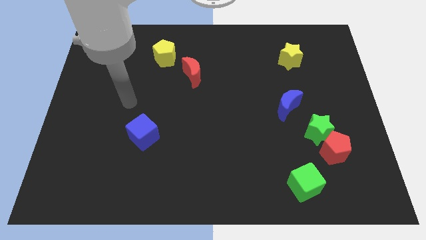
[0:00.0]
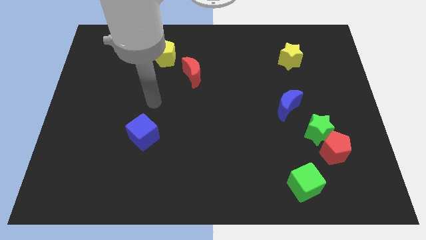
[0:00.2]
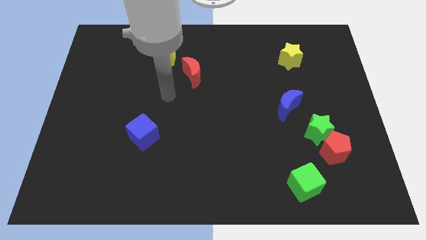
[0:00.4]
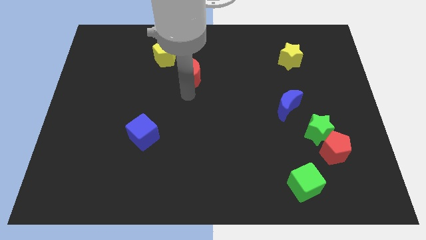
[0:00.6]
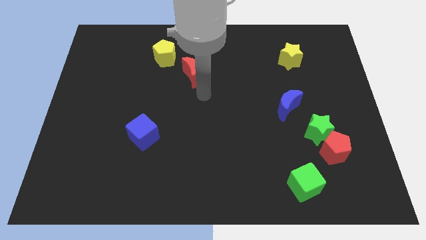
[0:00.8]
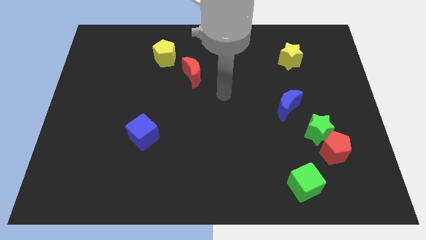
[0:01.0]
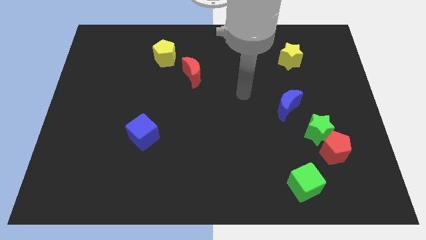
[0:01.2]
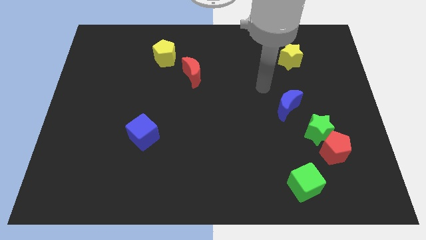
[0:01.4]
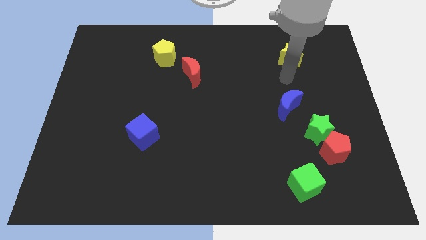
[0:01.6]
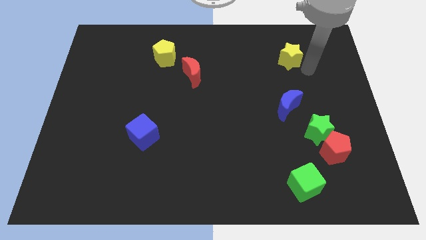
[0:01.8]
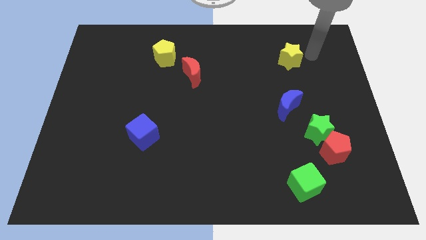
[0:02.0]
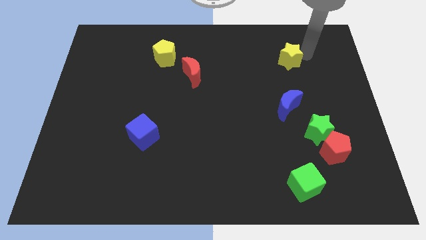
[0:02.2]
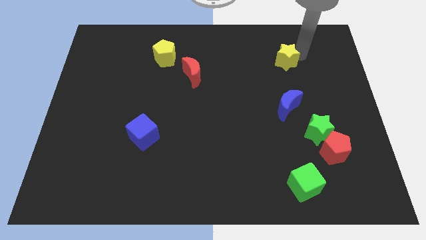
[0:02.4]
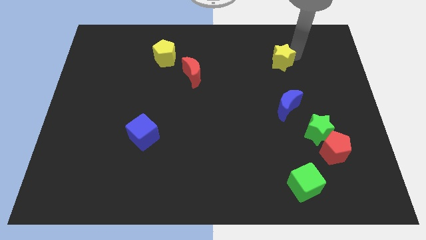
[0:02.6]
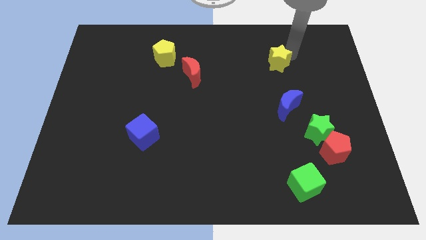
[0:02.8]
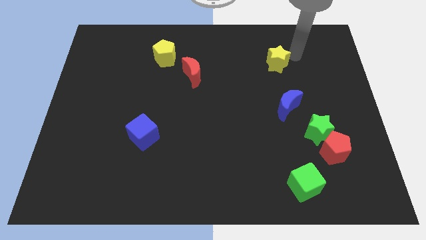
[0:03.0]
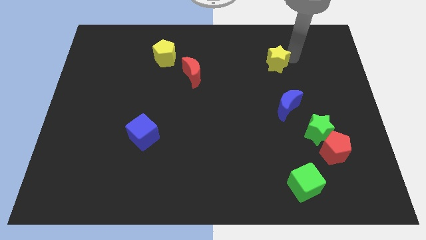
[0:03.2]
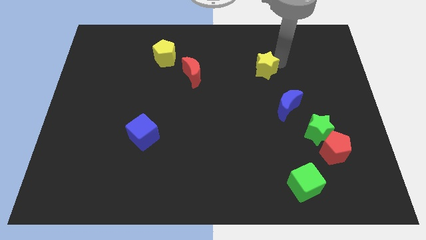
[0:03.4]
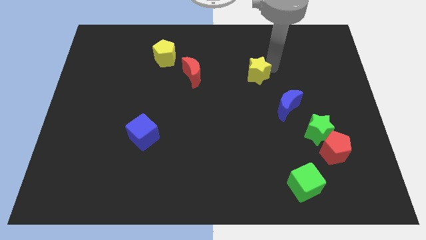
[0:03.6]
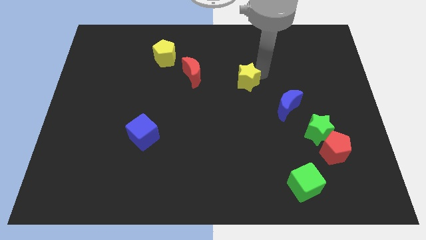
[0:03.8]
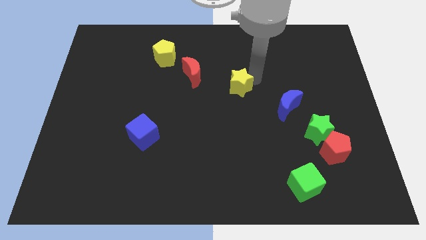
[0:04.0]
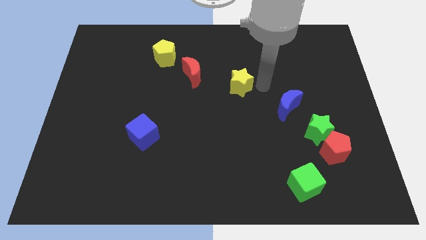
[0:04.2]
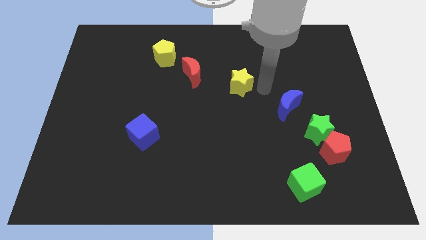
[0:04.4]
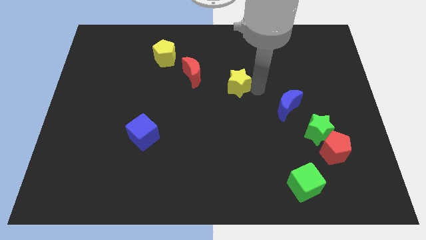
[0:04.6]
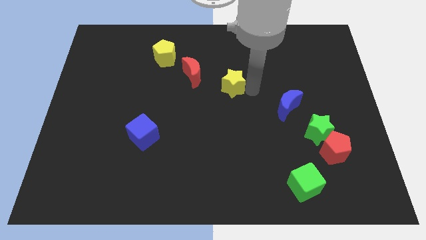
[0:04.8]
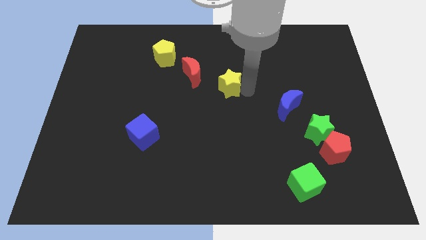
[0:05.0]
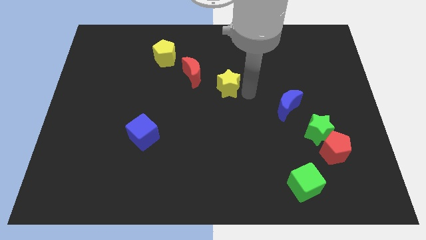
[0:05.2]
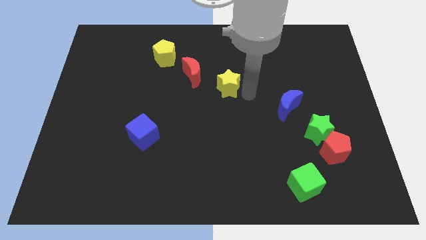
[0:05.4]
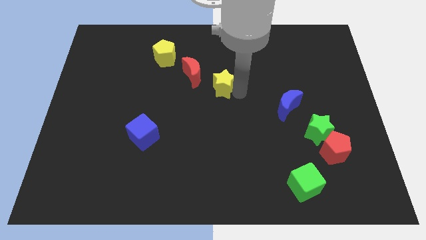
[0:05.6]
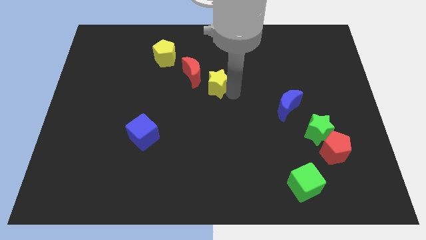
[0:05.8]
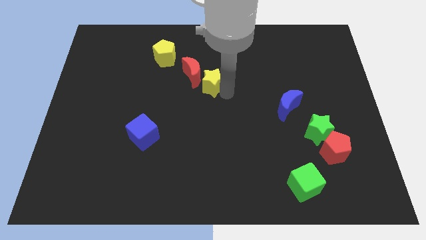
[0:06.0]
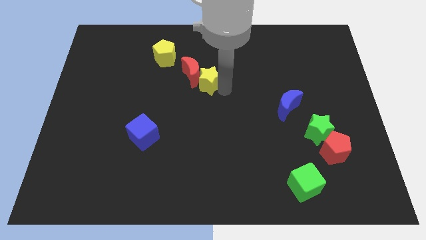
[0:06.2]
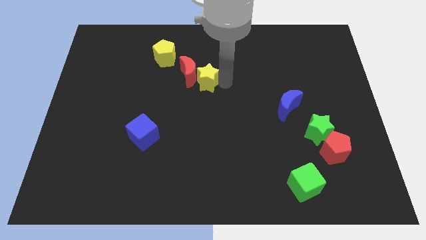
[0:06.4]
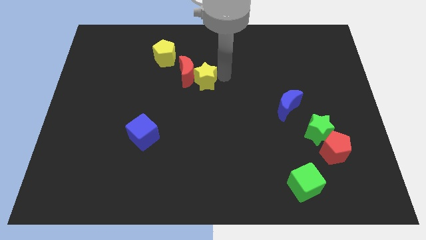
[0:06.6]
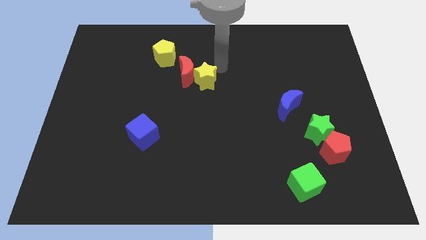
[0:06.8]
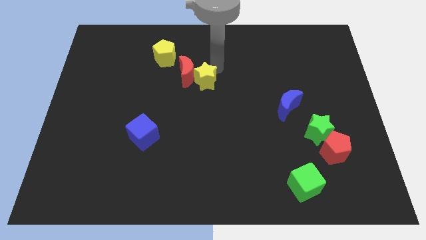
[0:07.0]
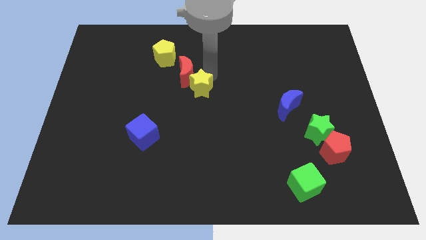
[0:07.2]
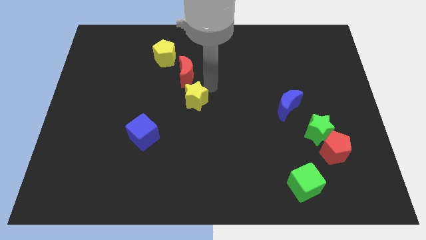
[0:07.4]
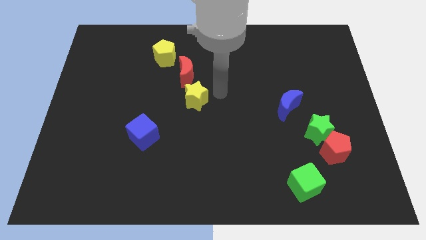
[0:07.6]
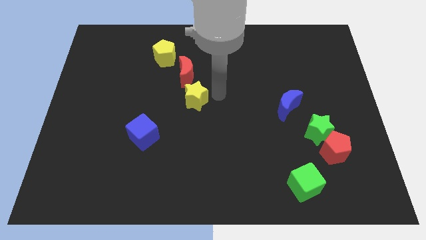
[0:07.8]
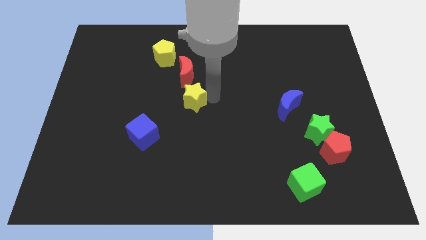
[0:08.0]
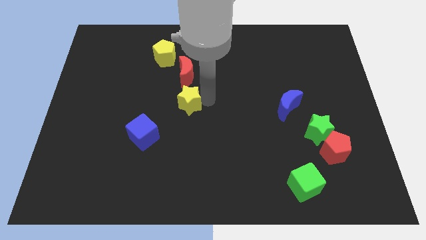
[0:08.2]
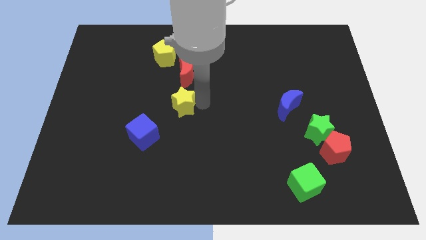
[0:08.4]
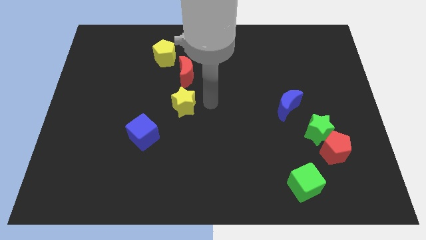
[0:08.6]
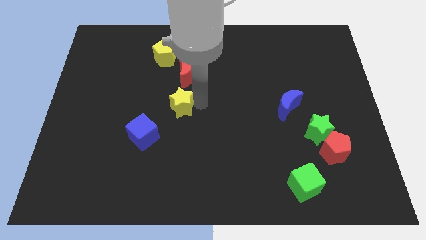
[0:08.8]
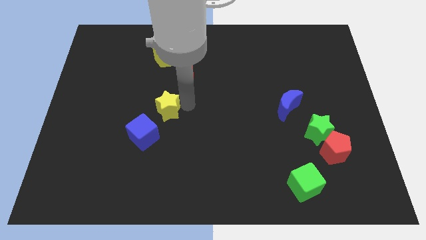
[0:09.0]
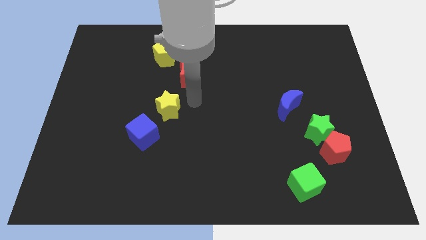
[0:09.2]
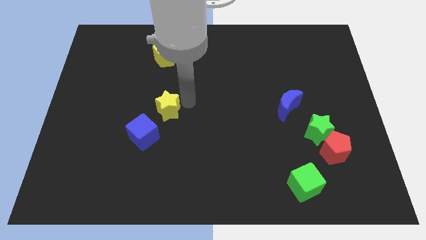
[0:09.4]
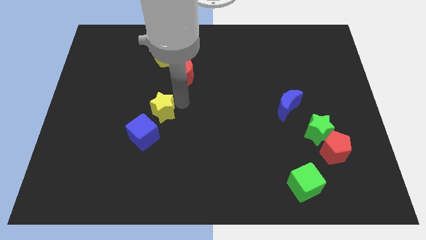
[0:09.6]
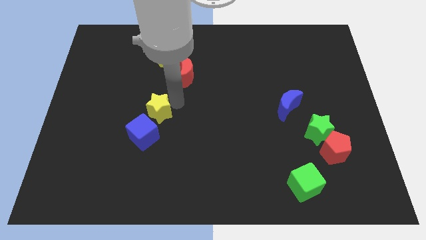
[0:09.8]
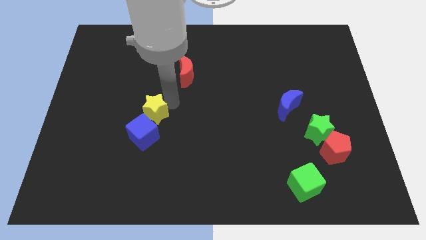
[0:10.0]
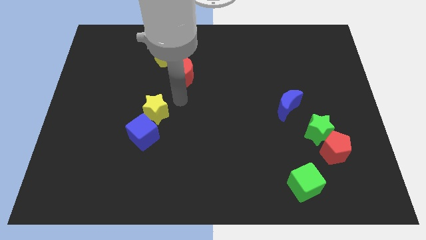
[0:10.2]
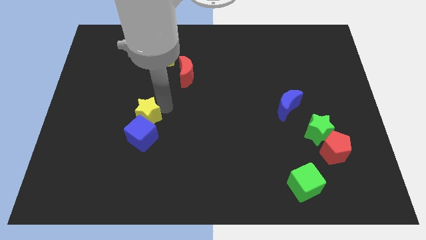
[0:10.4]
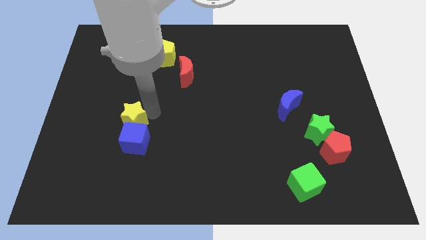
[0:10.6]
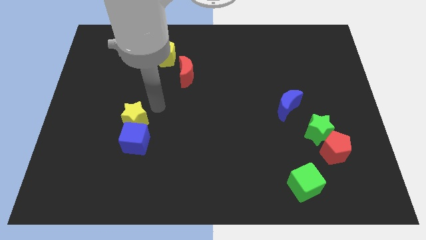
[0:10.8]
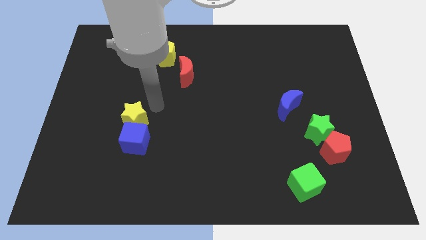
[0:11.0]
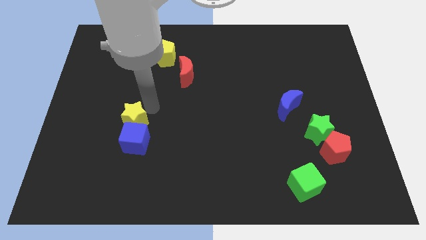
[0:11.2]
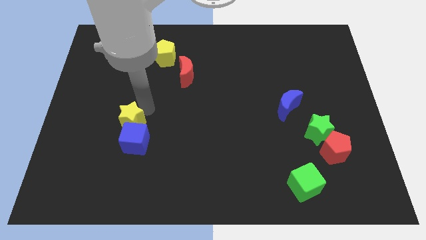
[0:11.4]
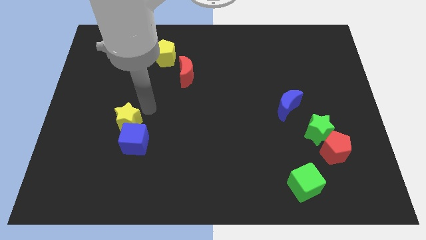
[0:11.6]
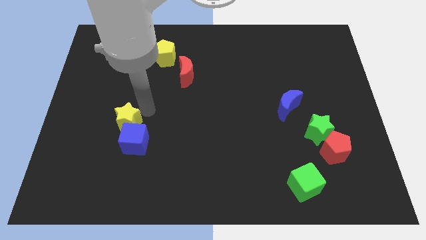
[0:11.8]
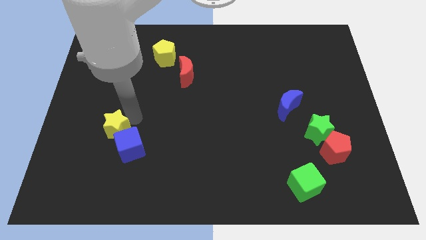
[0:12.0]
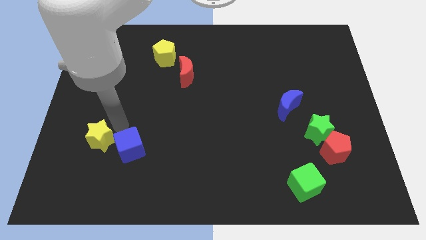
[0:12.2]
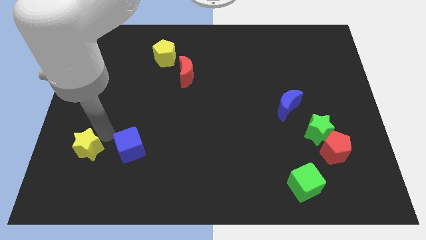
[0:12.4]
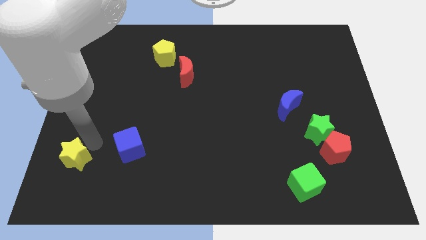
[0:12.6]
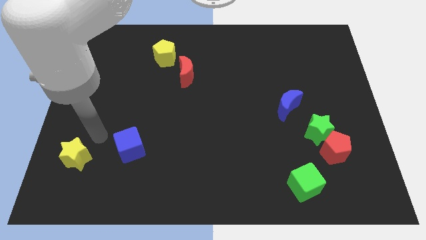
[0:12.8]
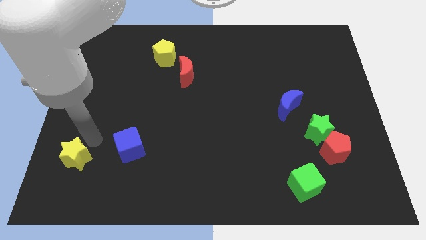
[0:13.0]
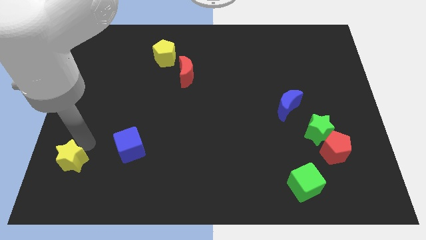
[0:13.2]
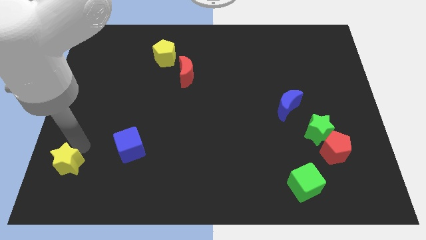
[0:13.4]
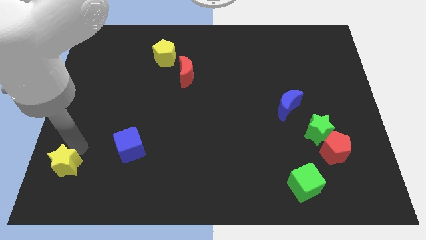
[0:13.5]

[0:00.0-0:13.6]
slide the yellow star to the bottom left corner
